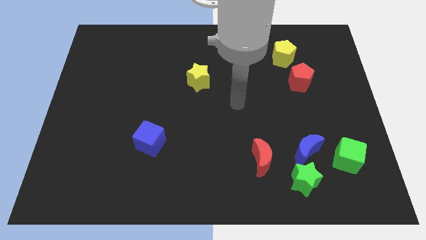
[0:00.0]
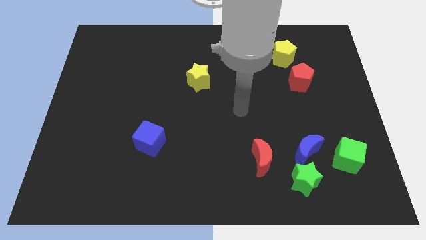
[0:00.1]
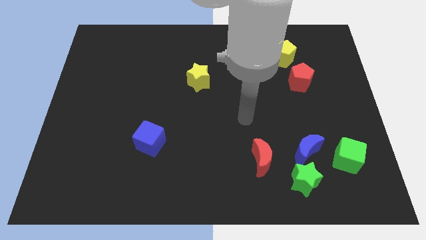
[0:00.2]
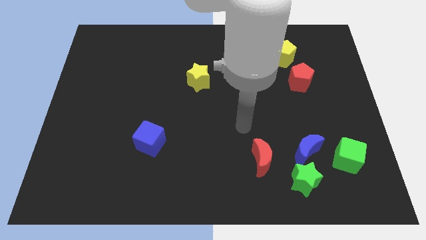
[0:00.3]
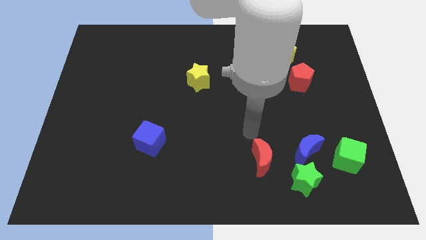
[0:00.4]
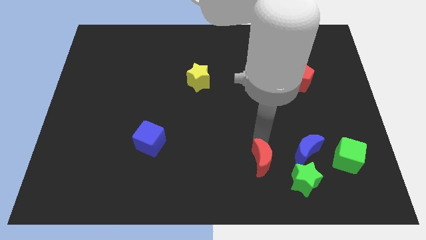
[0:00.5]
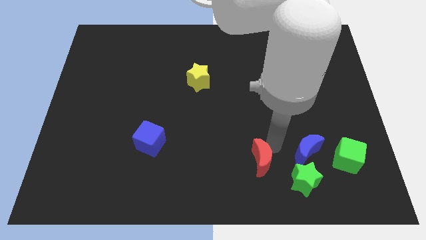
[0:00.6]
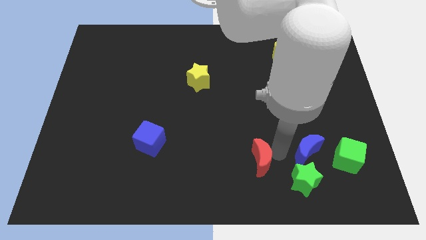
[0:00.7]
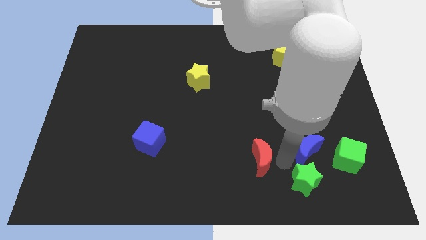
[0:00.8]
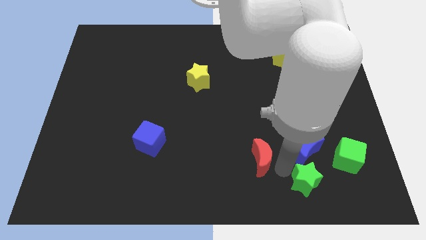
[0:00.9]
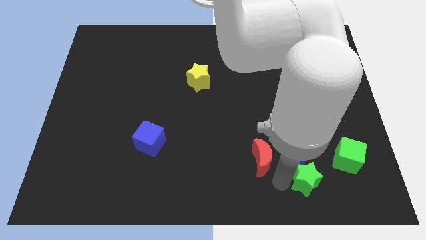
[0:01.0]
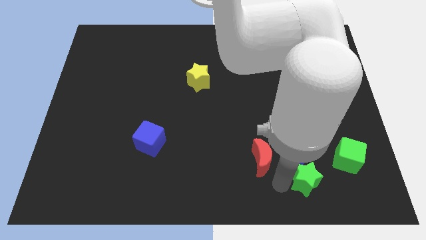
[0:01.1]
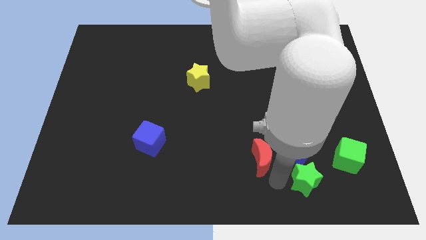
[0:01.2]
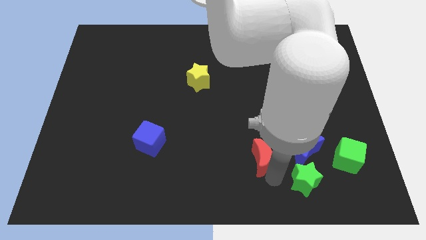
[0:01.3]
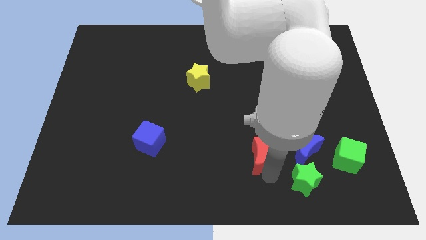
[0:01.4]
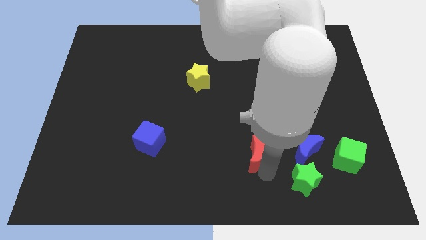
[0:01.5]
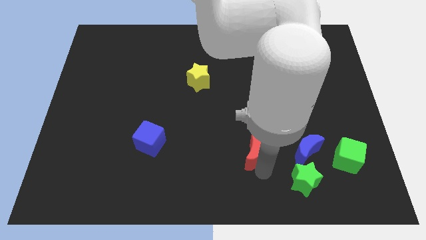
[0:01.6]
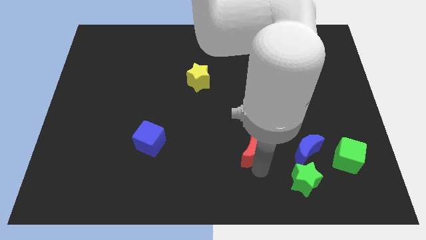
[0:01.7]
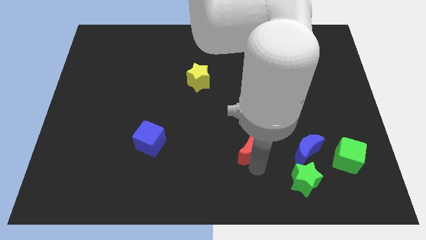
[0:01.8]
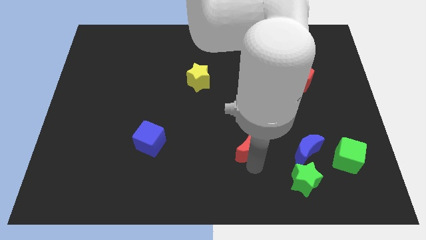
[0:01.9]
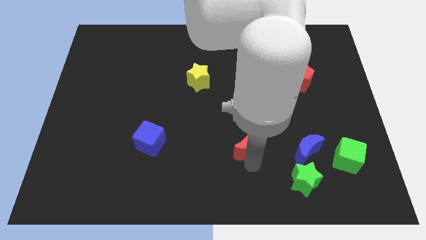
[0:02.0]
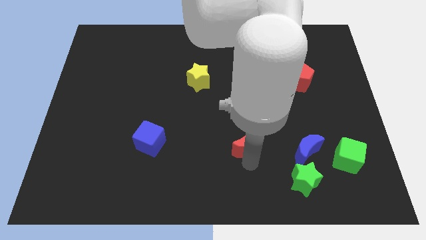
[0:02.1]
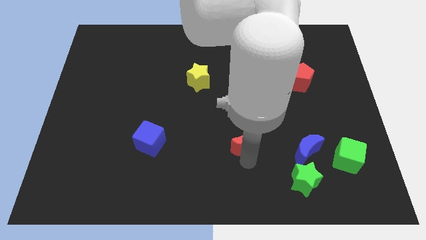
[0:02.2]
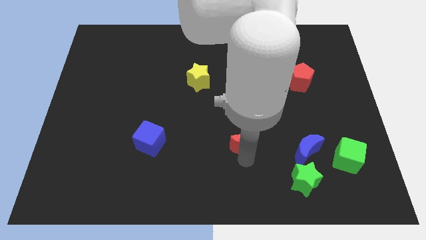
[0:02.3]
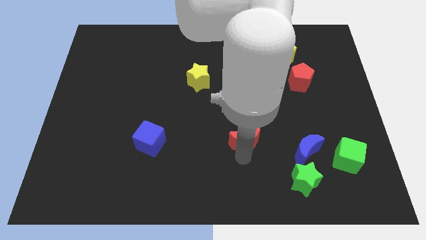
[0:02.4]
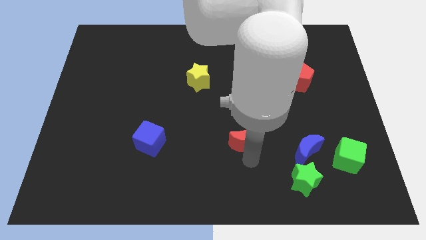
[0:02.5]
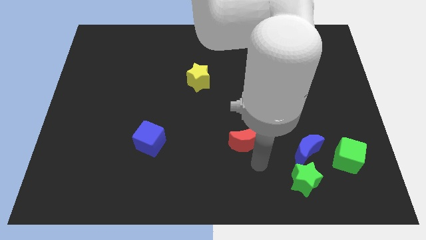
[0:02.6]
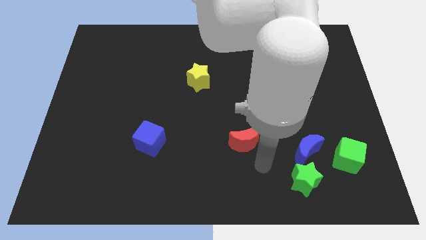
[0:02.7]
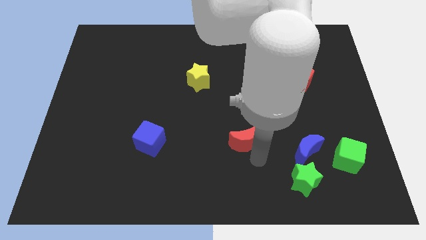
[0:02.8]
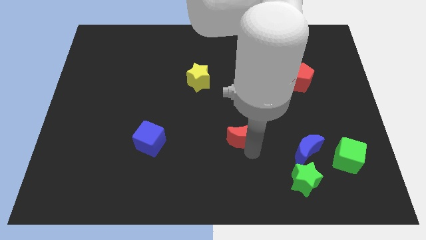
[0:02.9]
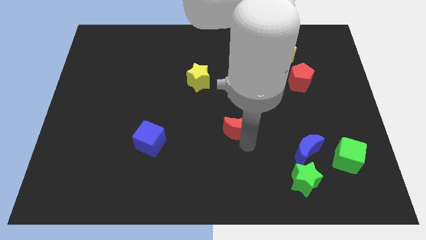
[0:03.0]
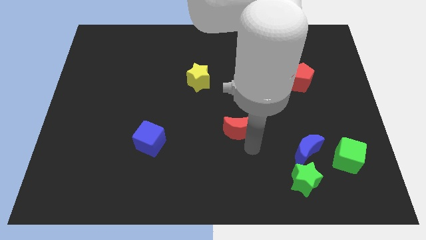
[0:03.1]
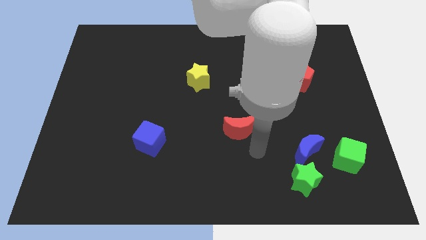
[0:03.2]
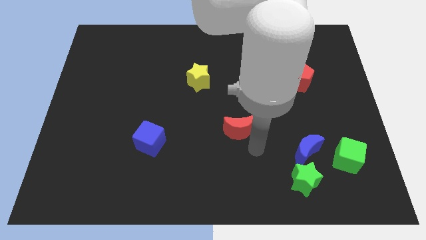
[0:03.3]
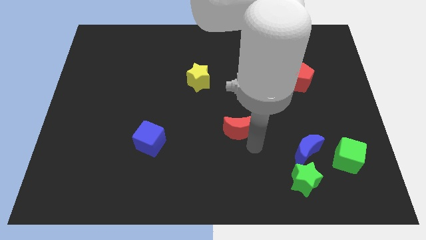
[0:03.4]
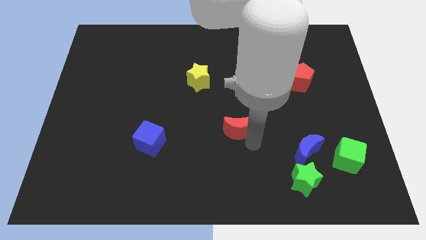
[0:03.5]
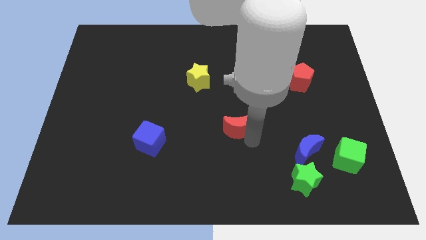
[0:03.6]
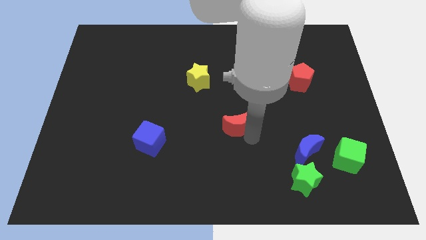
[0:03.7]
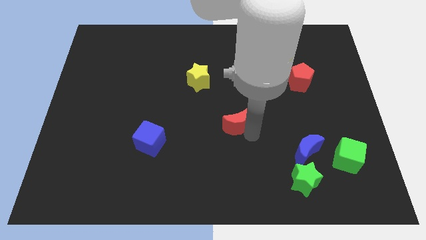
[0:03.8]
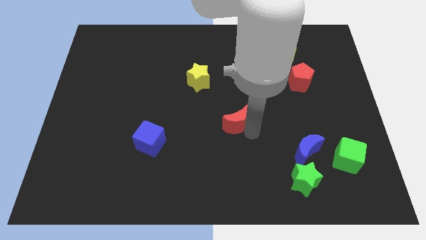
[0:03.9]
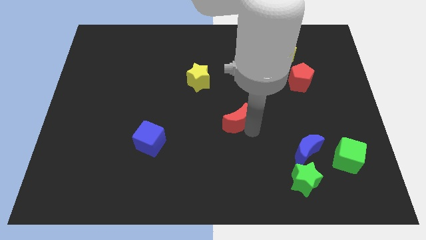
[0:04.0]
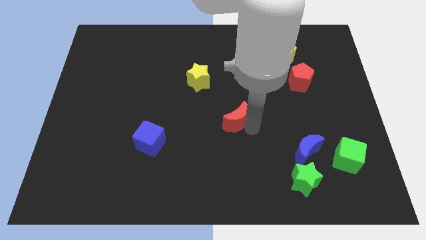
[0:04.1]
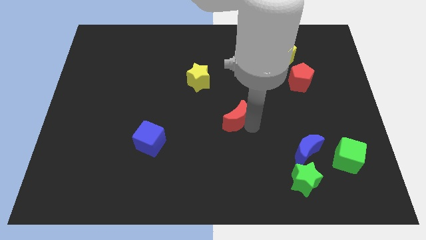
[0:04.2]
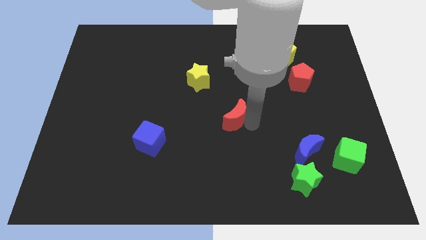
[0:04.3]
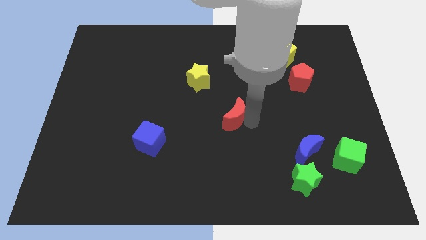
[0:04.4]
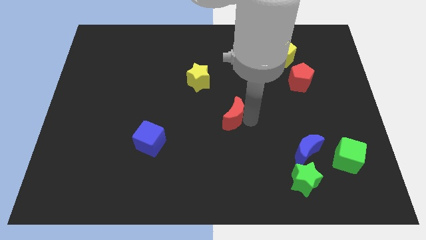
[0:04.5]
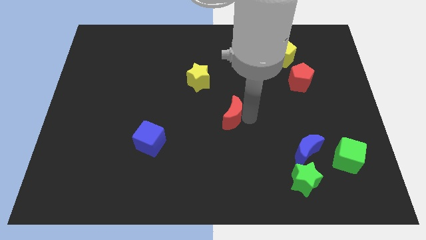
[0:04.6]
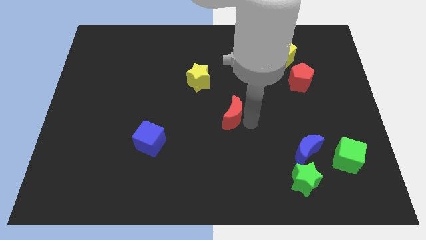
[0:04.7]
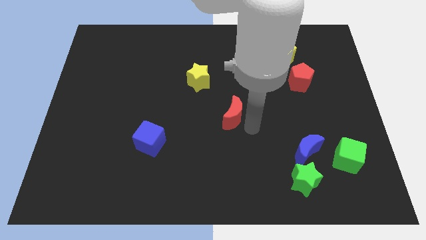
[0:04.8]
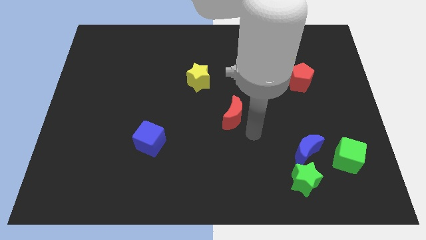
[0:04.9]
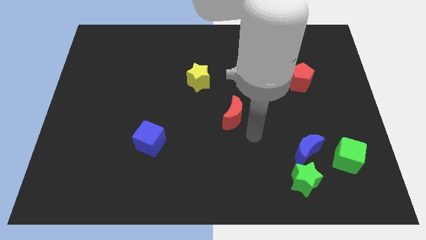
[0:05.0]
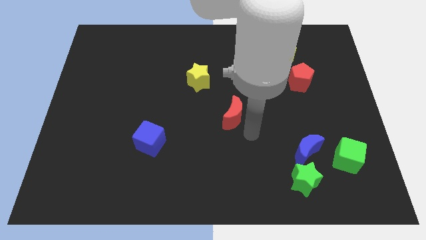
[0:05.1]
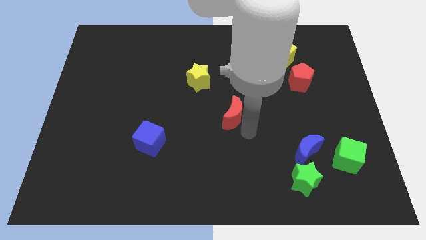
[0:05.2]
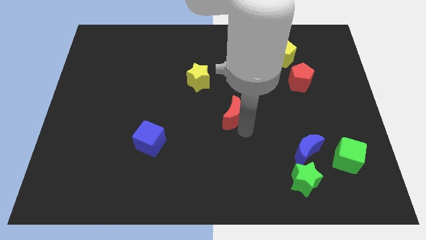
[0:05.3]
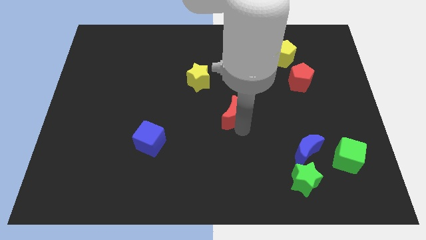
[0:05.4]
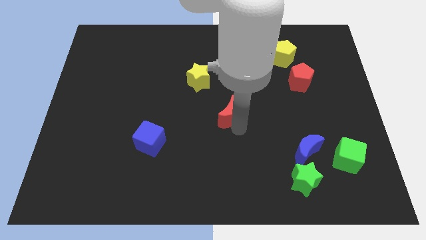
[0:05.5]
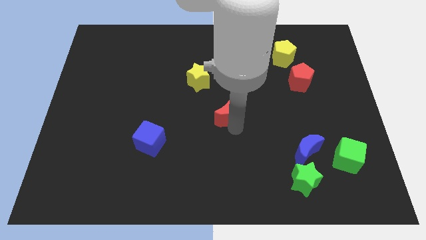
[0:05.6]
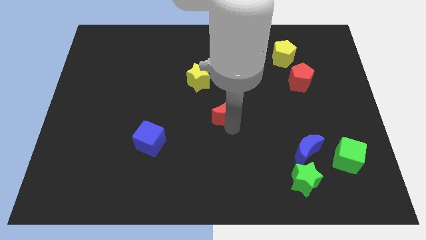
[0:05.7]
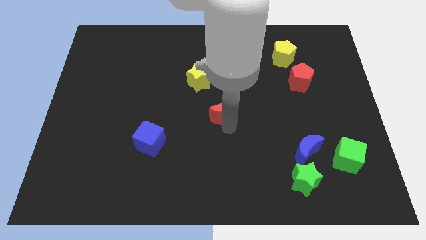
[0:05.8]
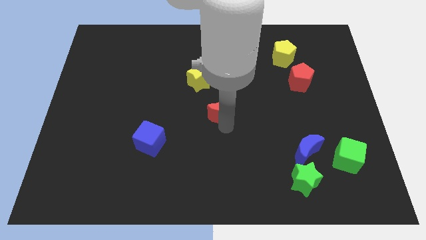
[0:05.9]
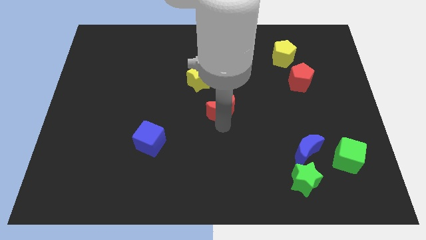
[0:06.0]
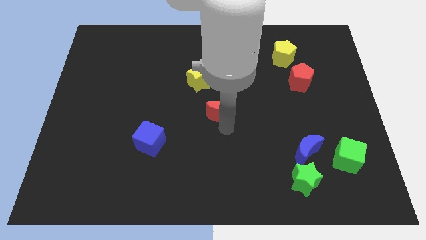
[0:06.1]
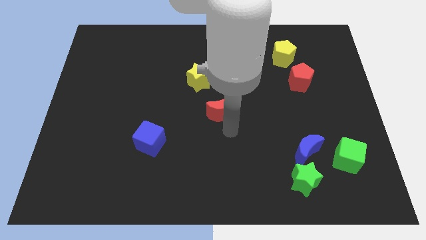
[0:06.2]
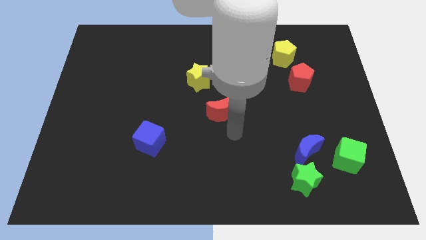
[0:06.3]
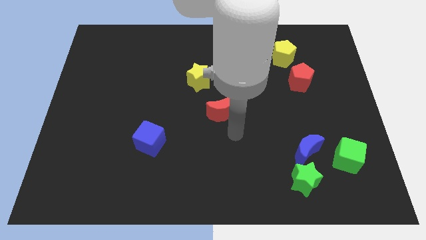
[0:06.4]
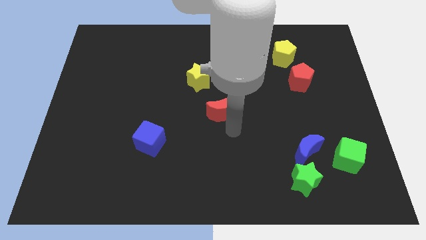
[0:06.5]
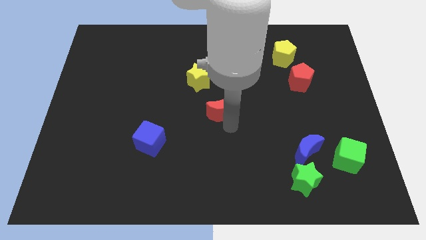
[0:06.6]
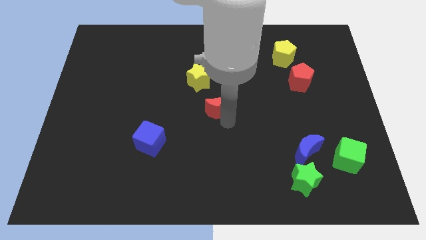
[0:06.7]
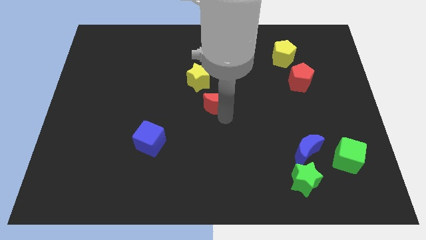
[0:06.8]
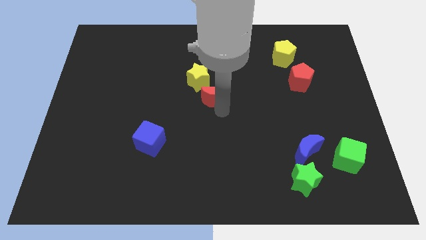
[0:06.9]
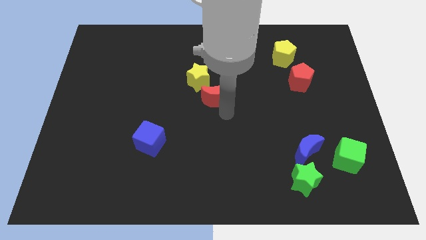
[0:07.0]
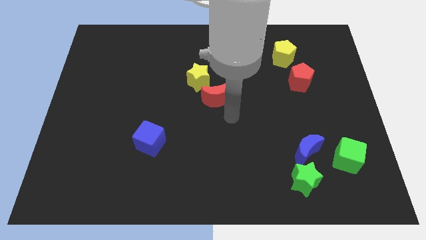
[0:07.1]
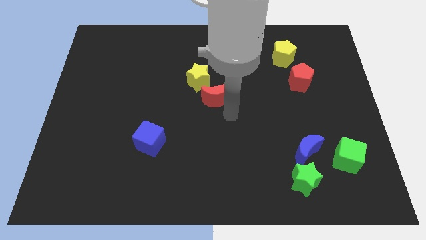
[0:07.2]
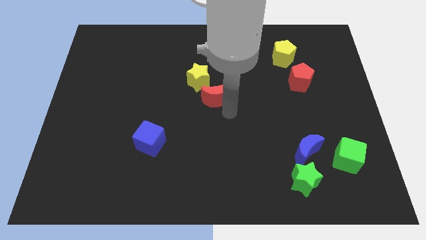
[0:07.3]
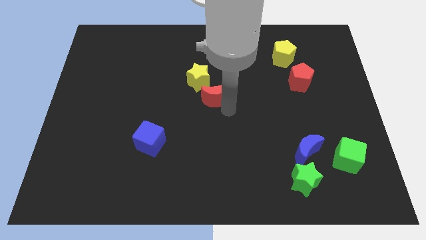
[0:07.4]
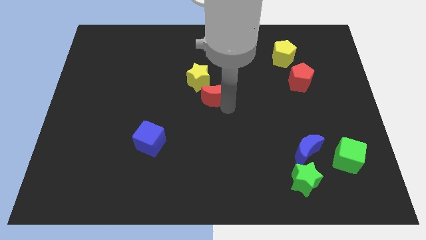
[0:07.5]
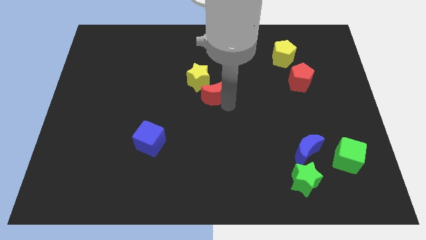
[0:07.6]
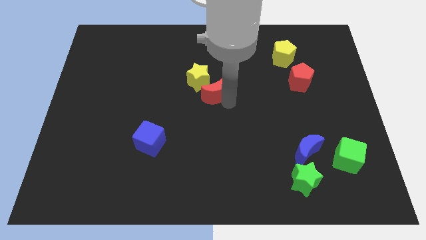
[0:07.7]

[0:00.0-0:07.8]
slide the red moon to the yellow star
